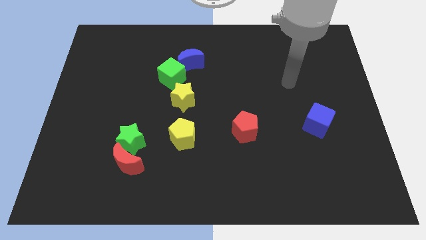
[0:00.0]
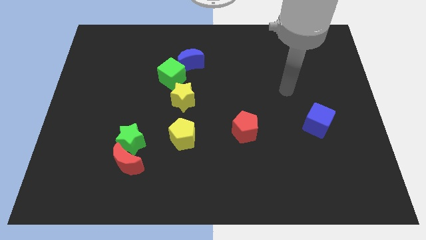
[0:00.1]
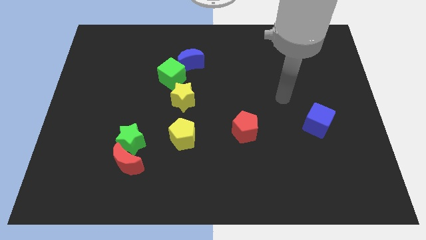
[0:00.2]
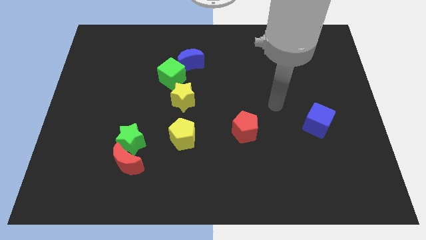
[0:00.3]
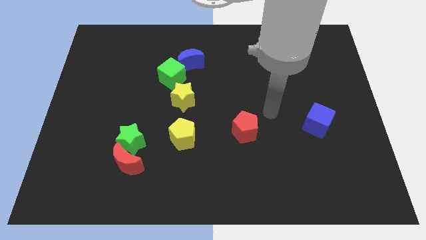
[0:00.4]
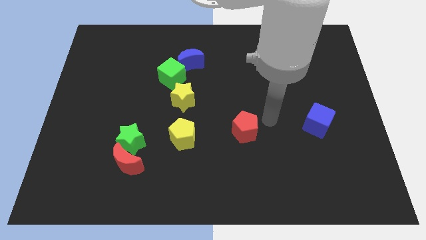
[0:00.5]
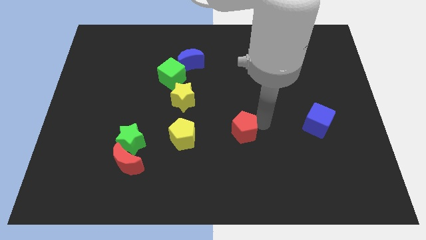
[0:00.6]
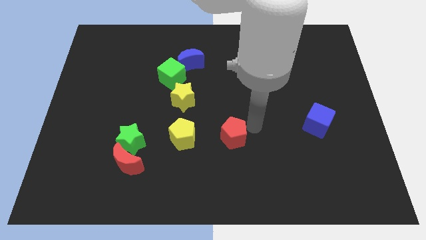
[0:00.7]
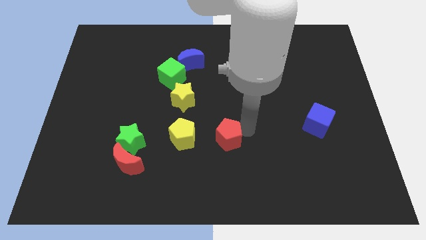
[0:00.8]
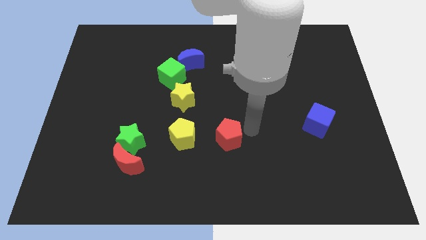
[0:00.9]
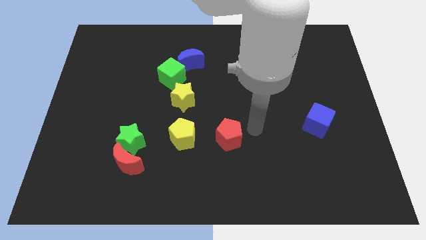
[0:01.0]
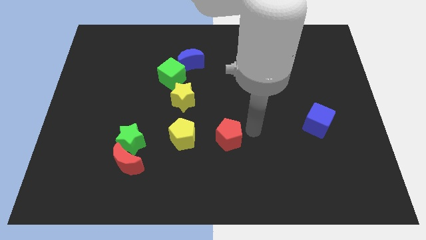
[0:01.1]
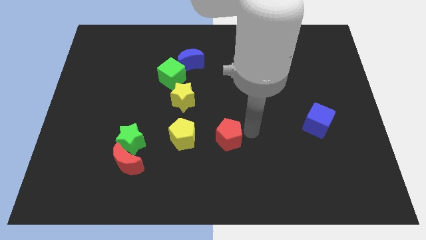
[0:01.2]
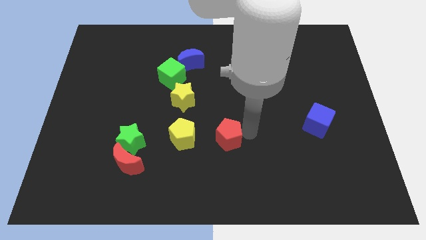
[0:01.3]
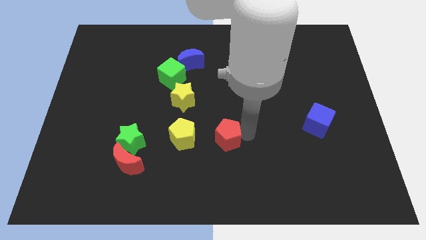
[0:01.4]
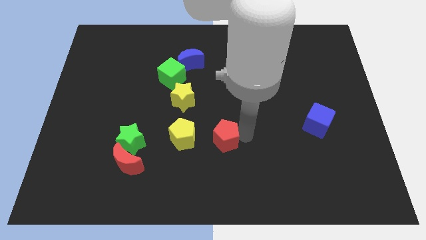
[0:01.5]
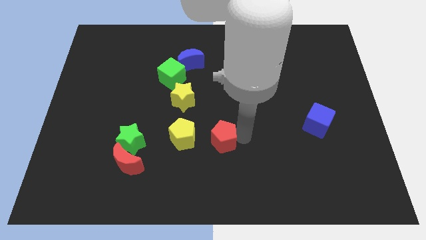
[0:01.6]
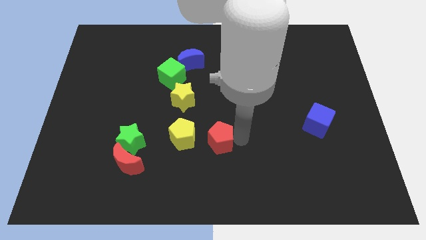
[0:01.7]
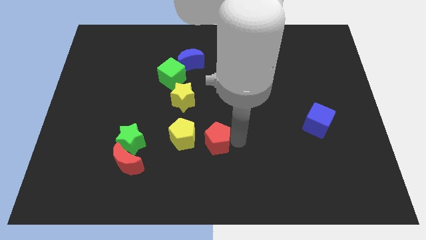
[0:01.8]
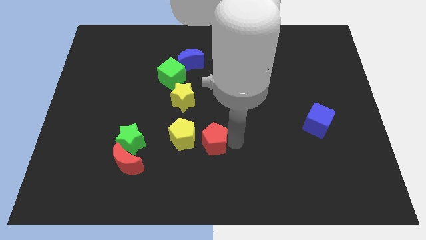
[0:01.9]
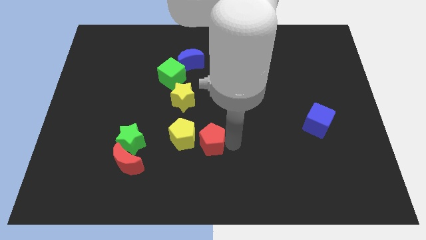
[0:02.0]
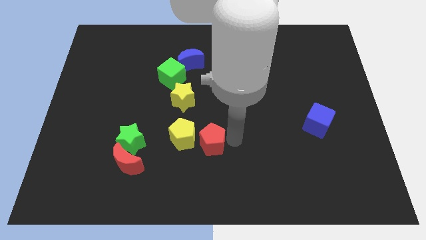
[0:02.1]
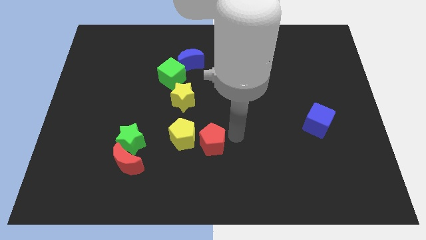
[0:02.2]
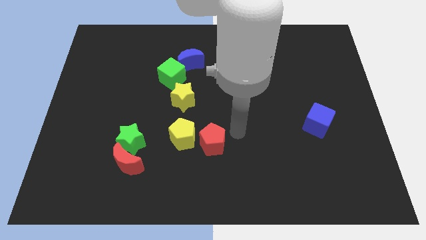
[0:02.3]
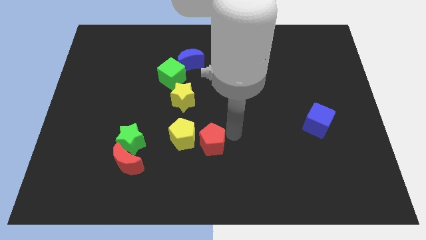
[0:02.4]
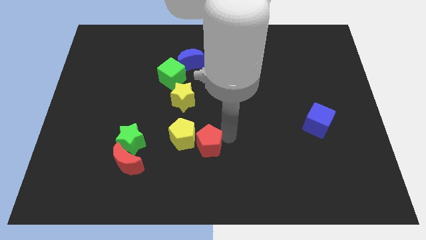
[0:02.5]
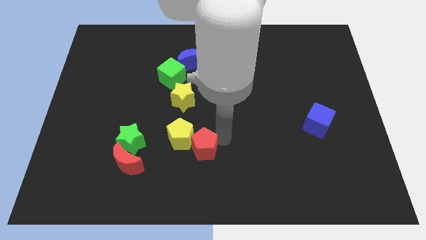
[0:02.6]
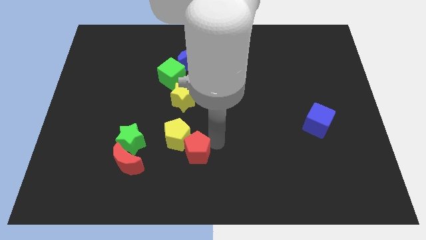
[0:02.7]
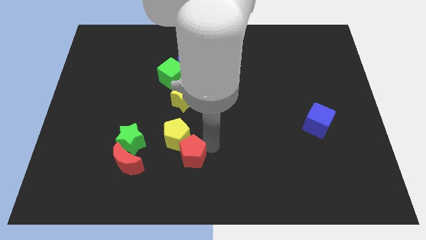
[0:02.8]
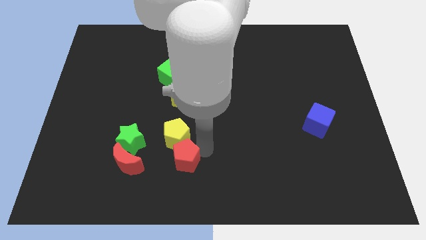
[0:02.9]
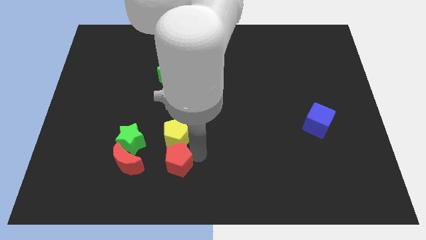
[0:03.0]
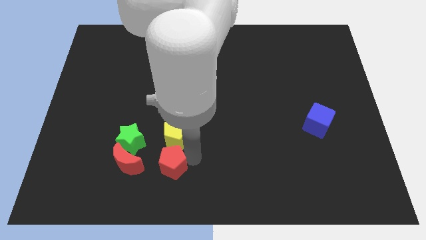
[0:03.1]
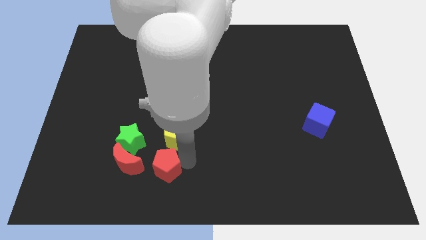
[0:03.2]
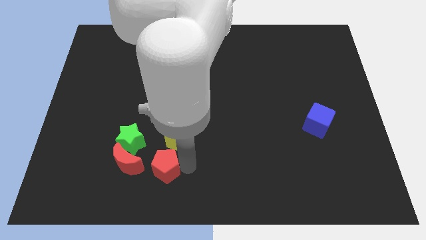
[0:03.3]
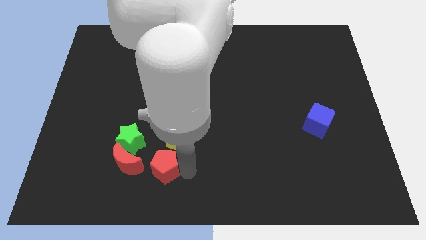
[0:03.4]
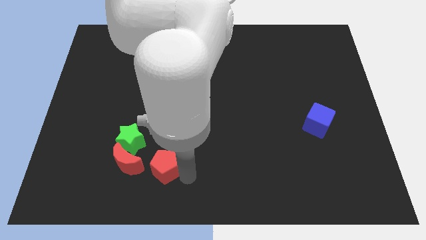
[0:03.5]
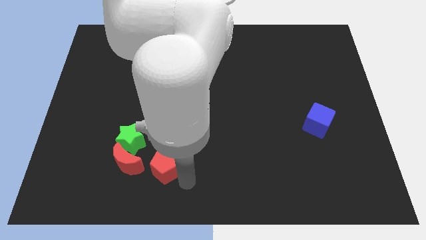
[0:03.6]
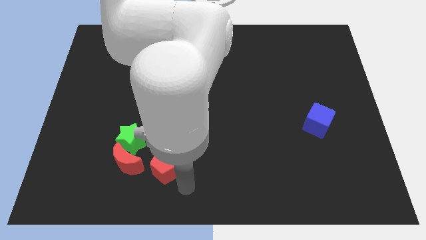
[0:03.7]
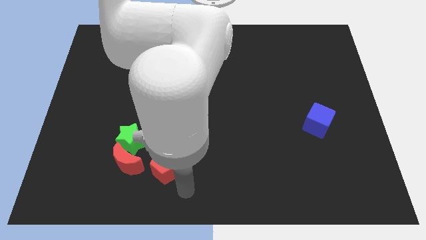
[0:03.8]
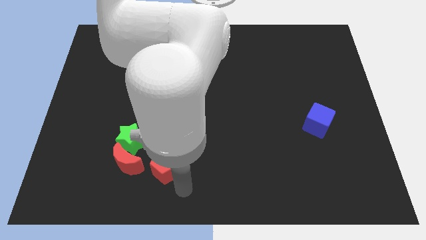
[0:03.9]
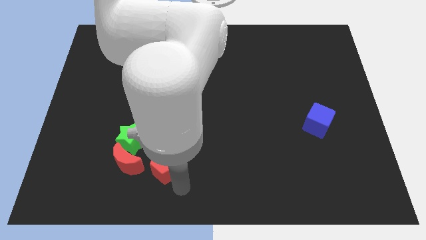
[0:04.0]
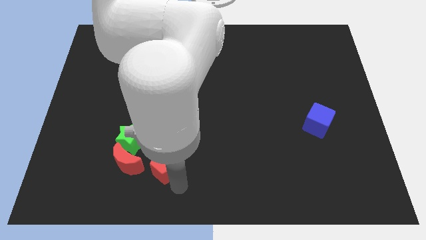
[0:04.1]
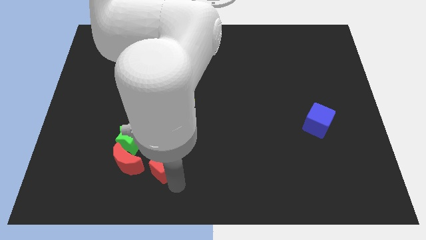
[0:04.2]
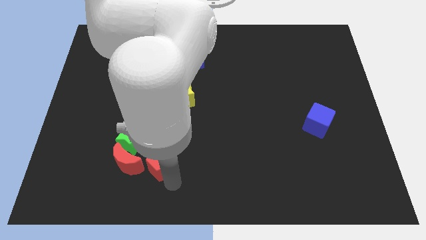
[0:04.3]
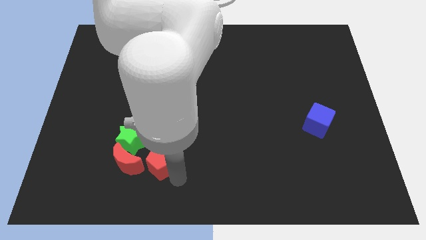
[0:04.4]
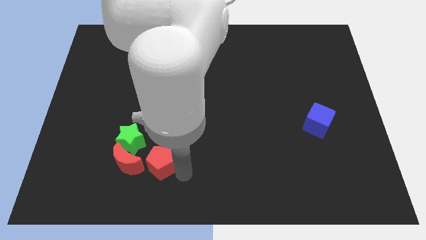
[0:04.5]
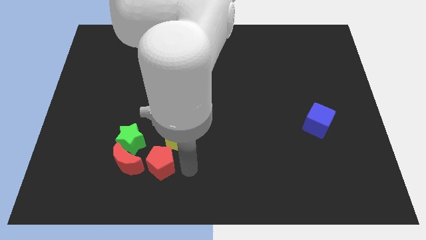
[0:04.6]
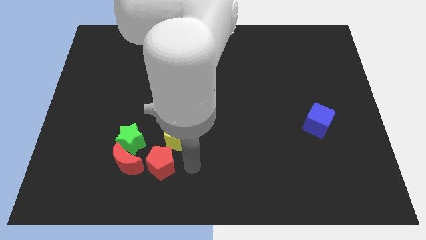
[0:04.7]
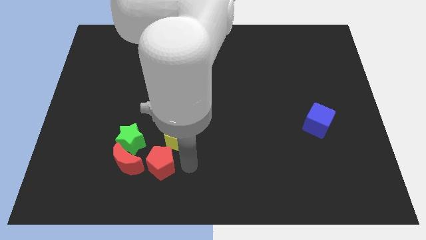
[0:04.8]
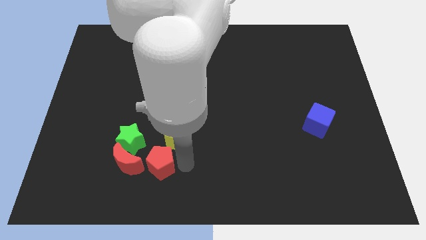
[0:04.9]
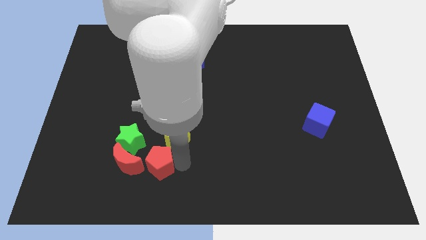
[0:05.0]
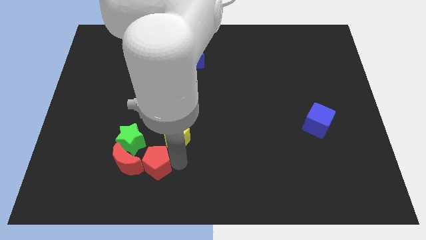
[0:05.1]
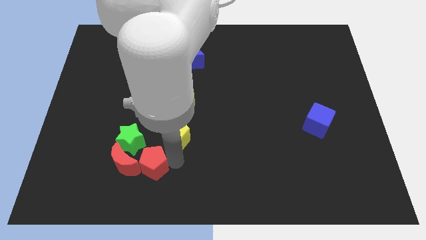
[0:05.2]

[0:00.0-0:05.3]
put the red pentagon next to the red moon

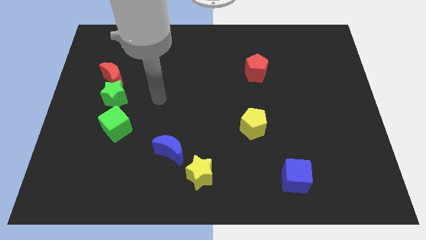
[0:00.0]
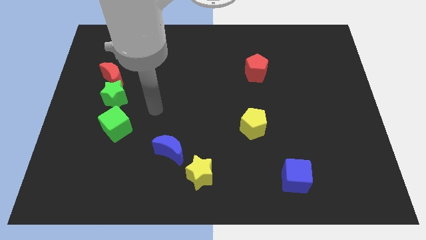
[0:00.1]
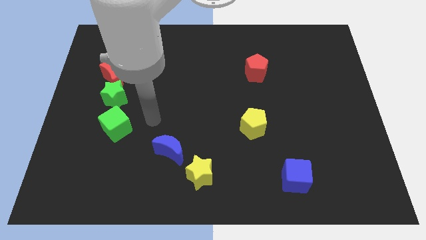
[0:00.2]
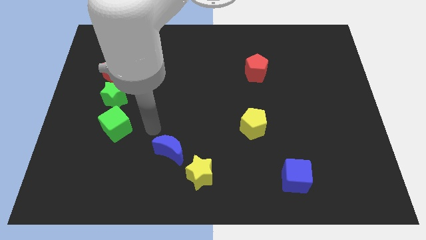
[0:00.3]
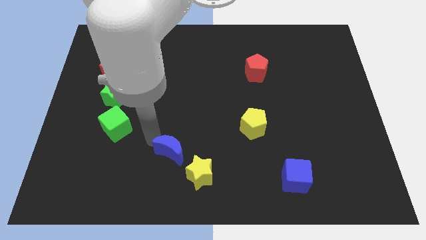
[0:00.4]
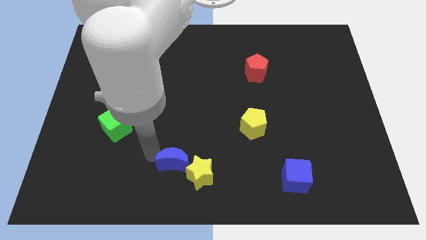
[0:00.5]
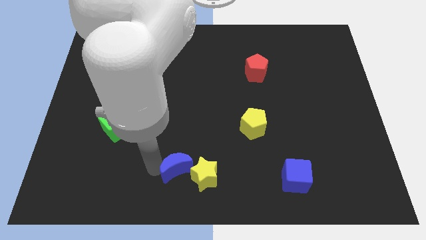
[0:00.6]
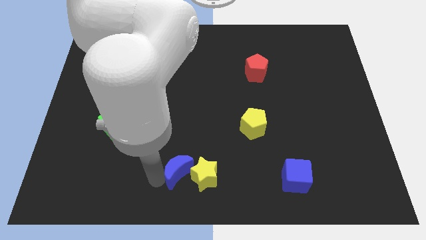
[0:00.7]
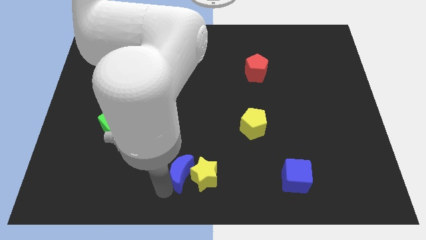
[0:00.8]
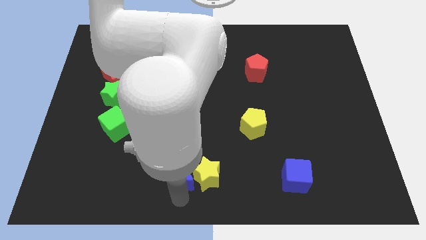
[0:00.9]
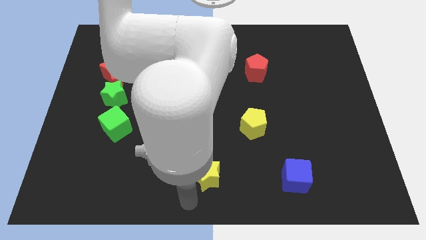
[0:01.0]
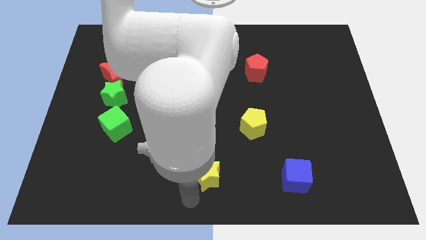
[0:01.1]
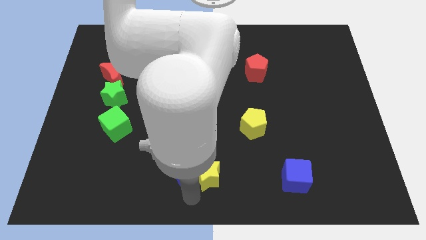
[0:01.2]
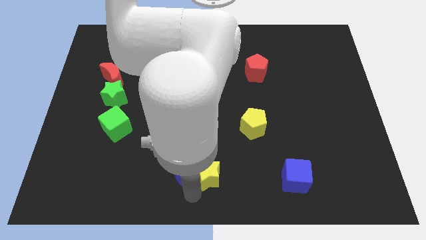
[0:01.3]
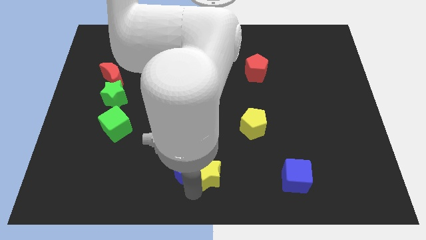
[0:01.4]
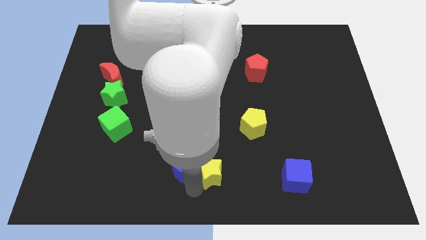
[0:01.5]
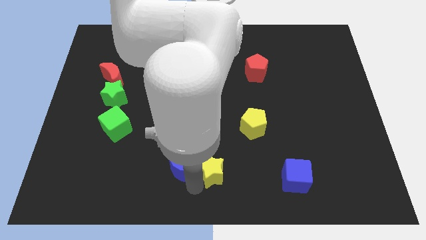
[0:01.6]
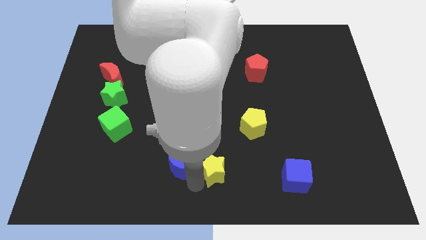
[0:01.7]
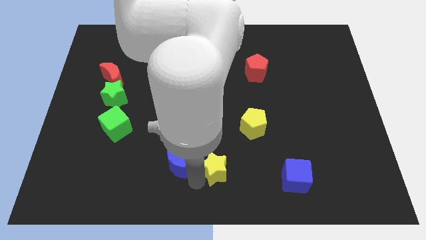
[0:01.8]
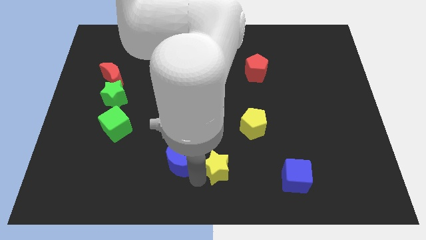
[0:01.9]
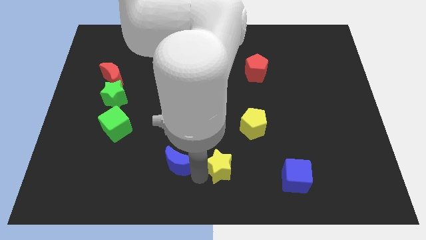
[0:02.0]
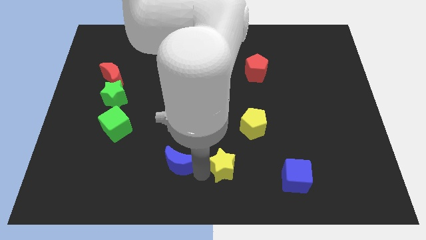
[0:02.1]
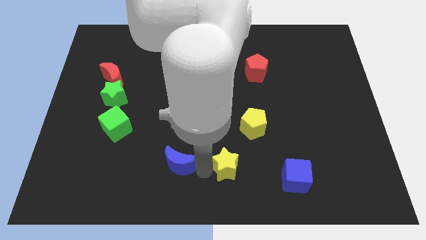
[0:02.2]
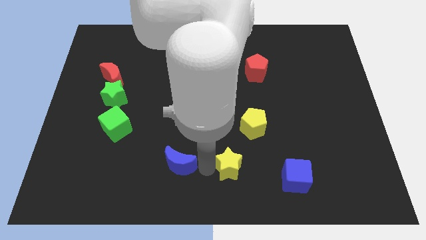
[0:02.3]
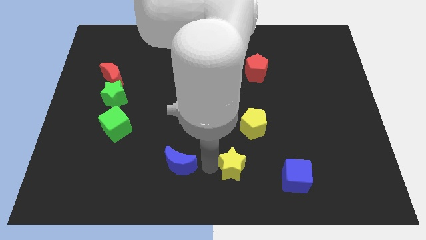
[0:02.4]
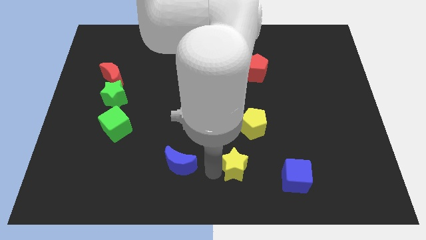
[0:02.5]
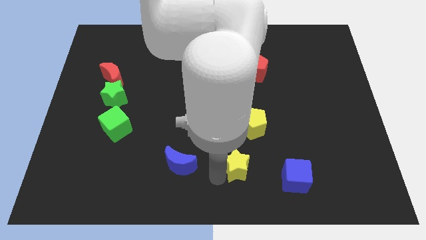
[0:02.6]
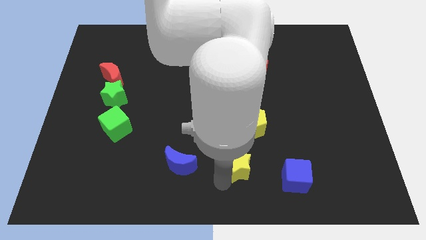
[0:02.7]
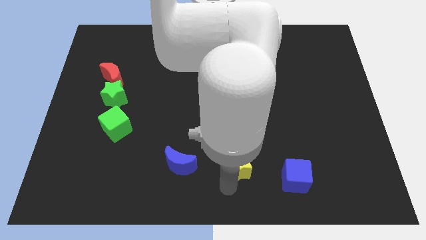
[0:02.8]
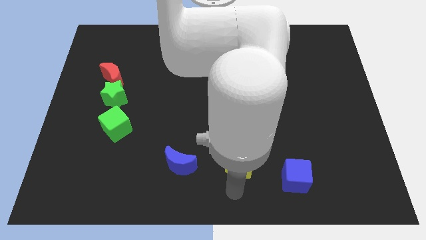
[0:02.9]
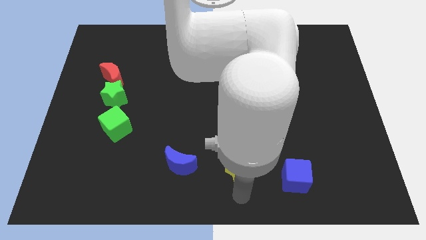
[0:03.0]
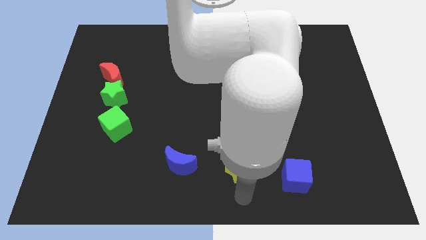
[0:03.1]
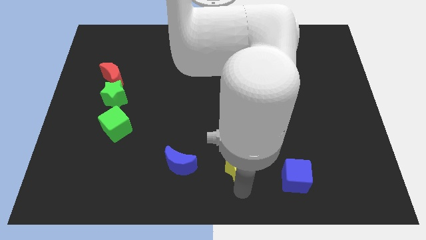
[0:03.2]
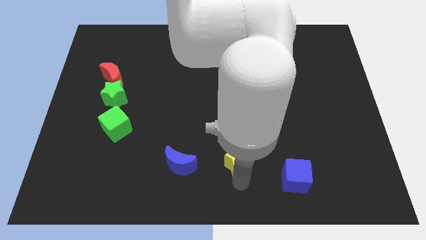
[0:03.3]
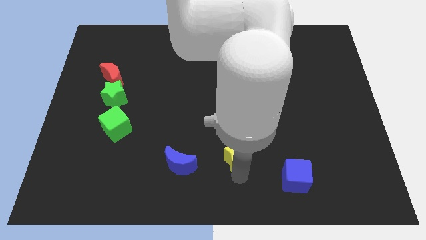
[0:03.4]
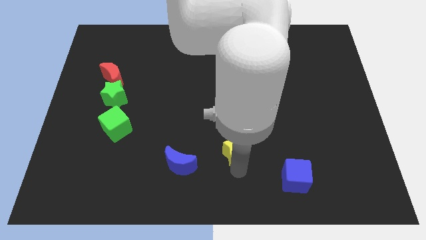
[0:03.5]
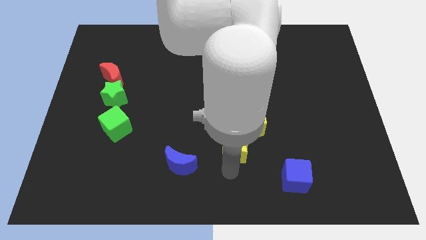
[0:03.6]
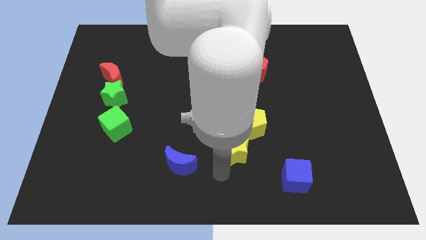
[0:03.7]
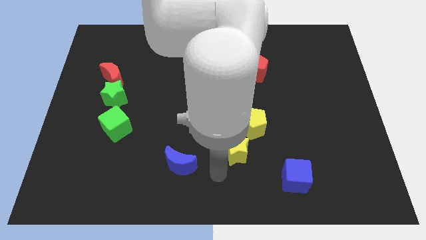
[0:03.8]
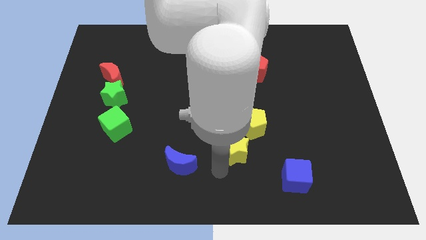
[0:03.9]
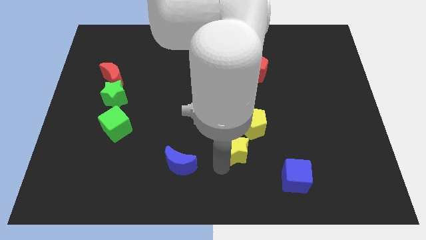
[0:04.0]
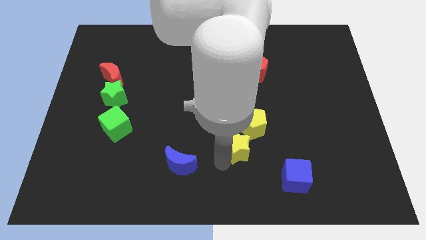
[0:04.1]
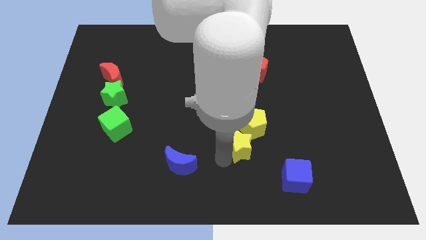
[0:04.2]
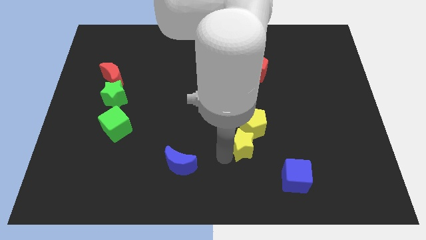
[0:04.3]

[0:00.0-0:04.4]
push the yellow star towards the yellow pentagon
